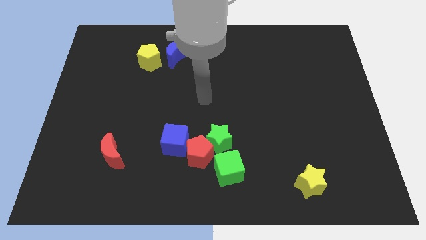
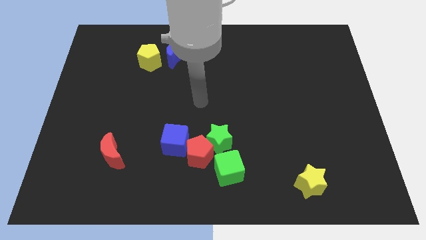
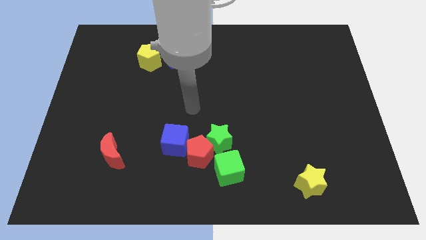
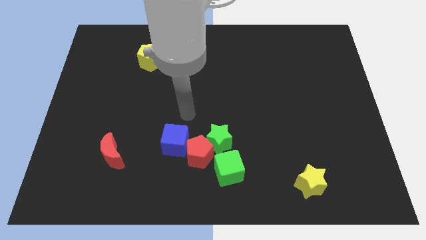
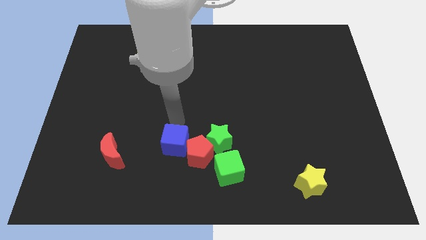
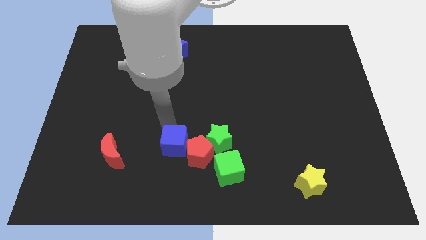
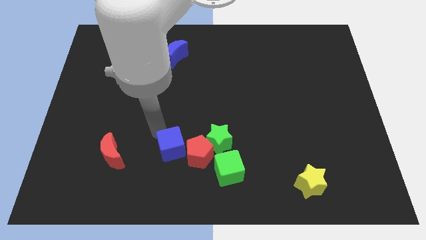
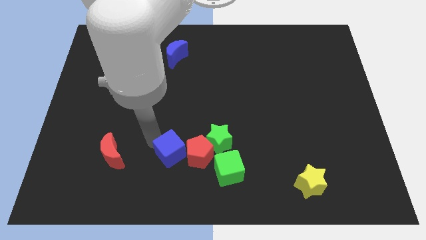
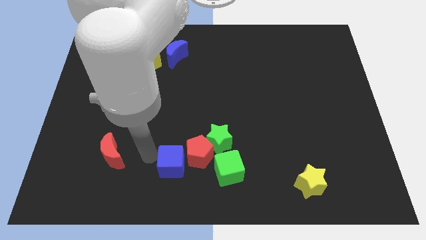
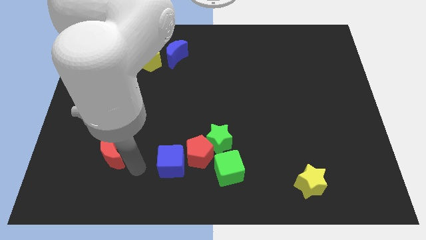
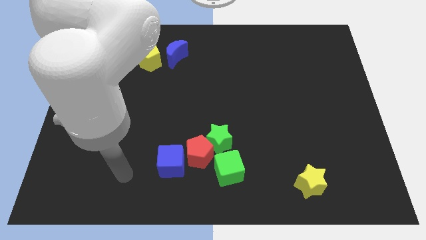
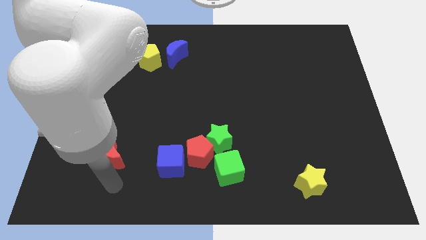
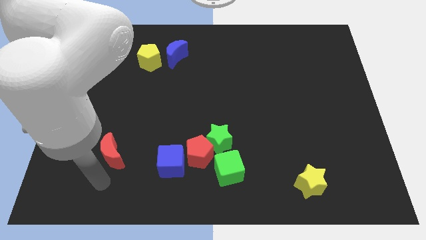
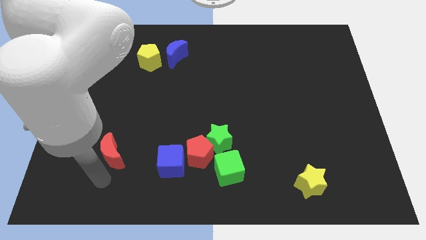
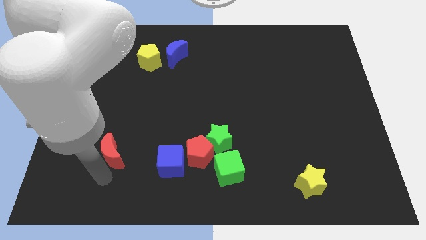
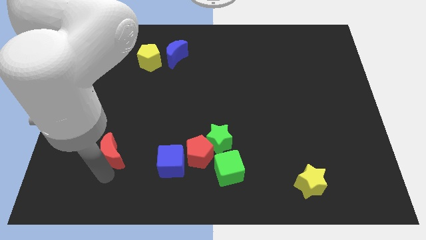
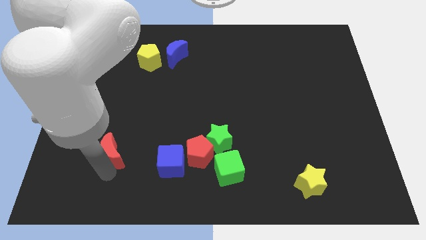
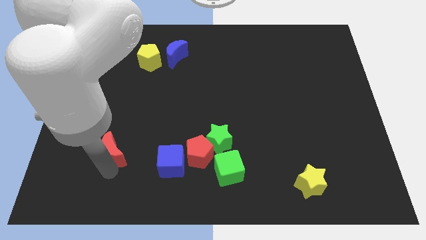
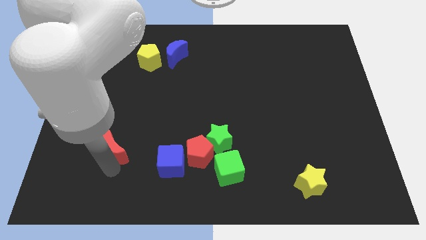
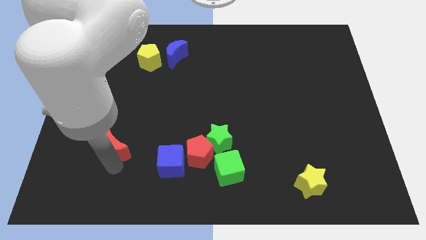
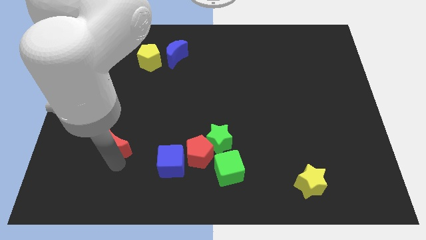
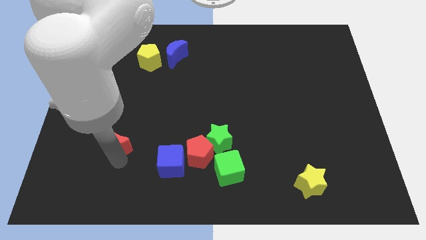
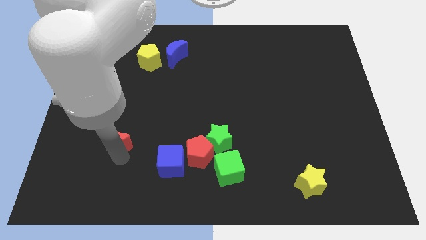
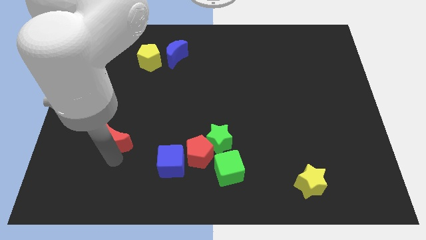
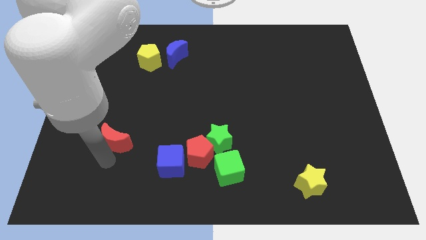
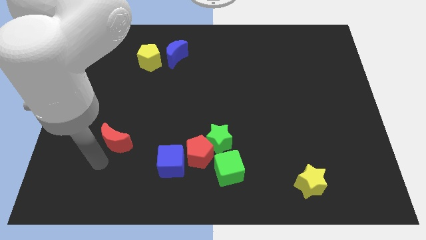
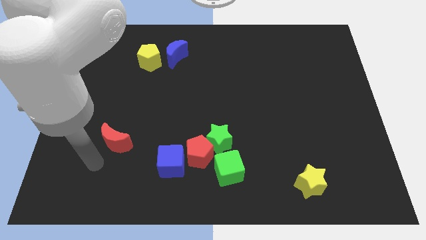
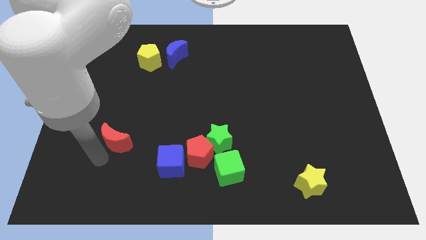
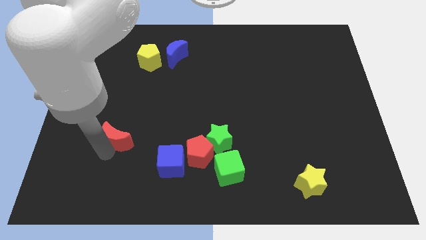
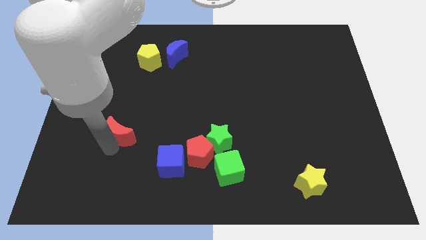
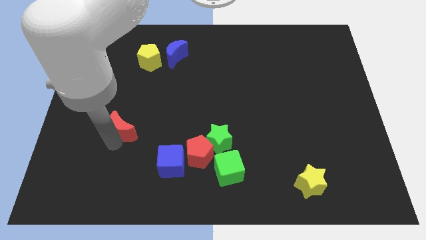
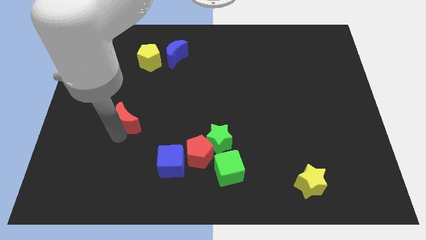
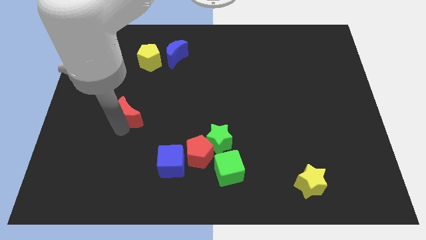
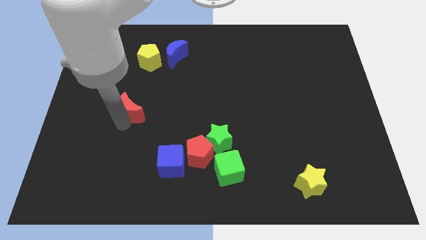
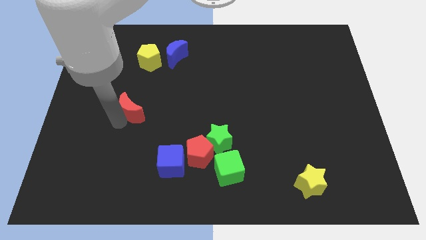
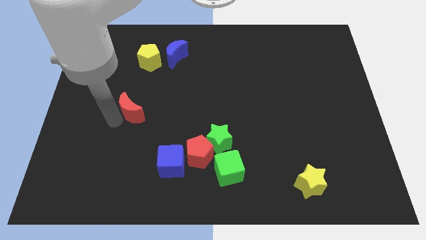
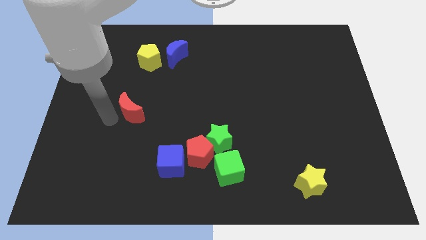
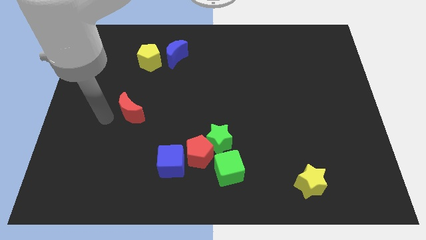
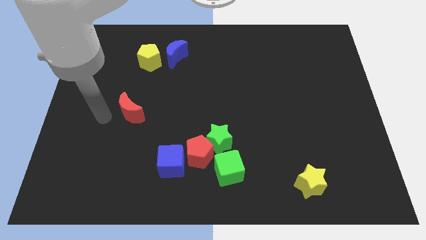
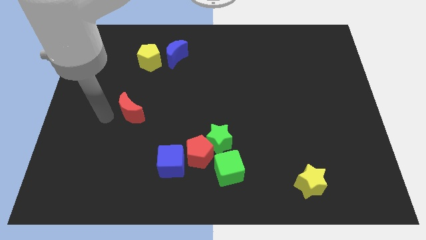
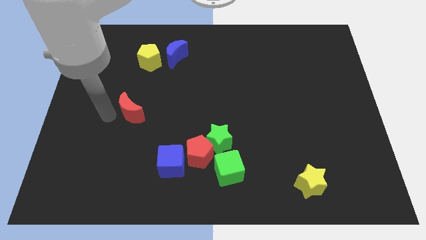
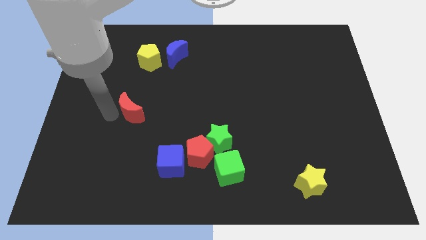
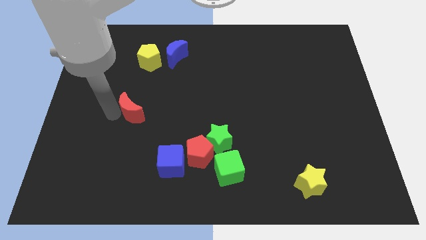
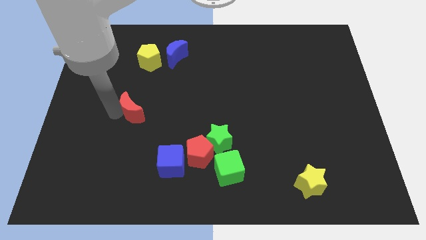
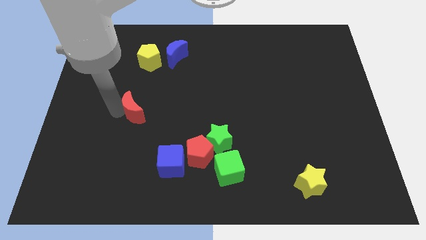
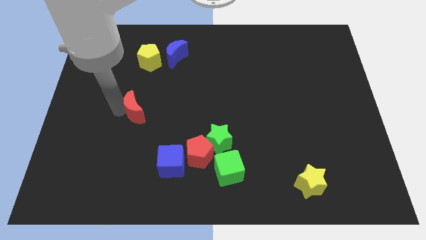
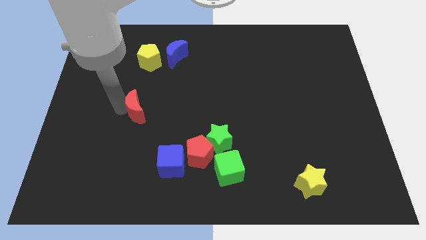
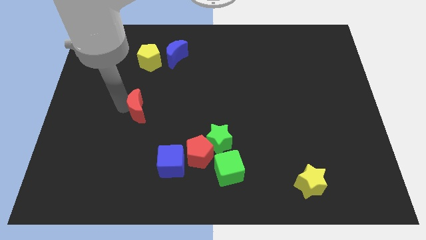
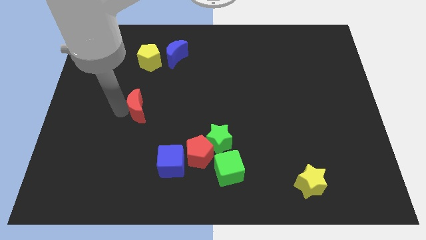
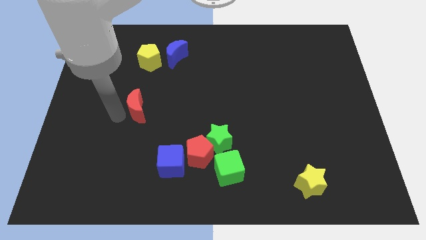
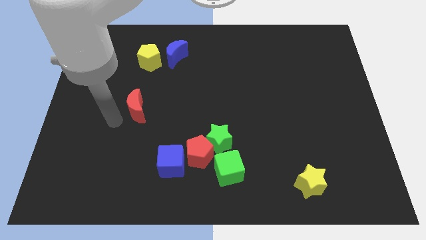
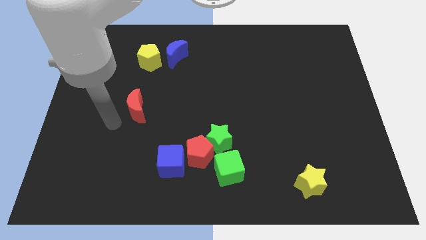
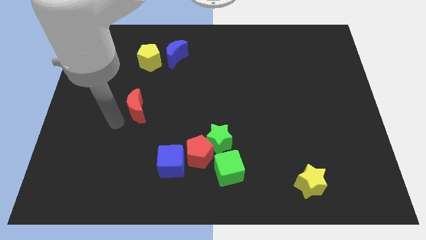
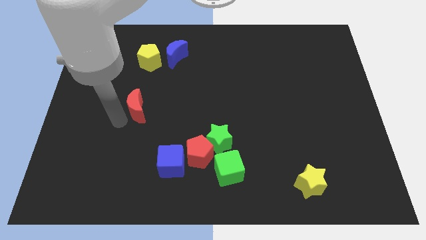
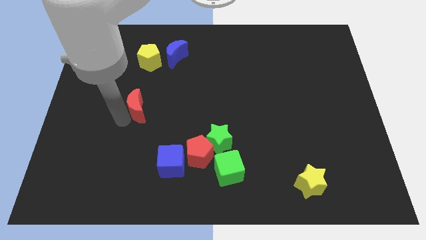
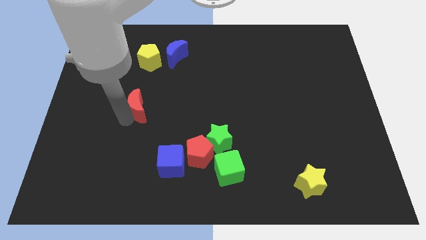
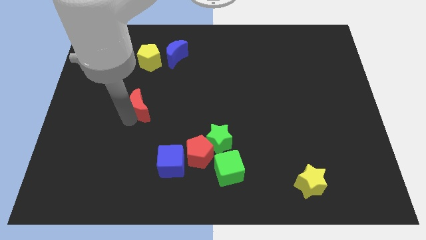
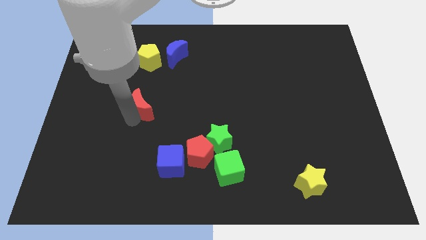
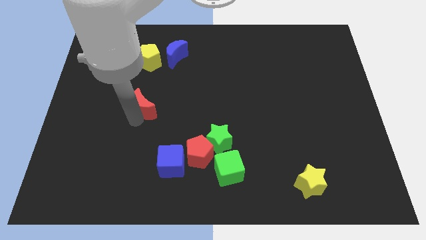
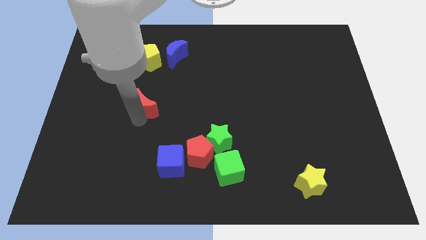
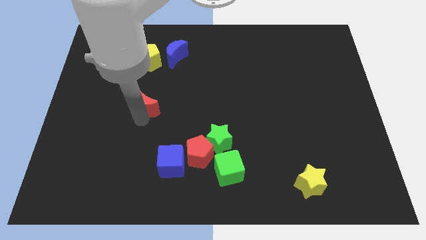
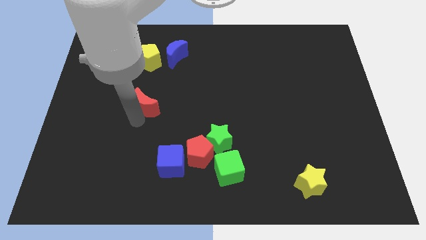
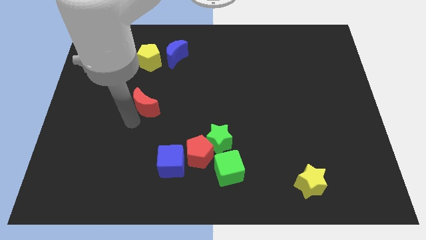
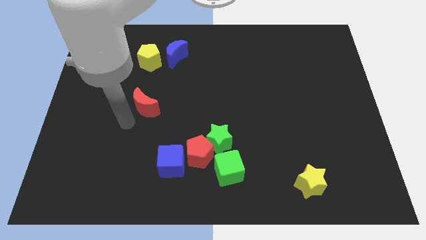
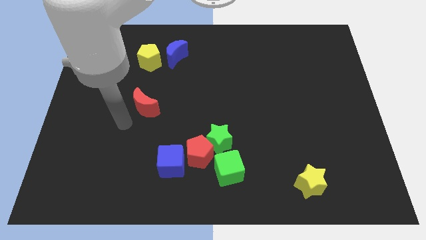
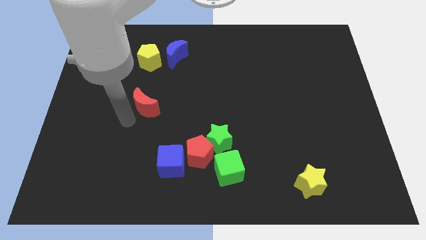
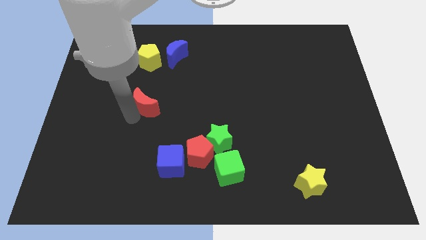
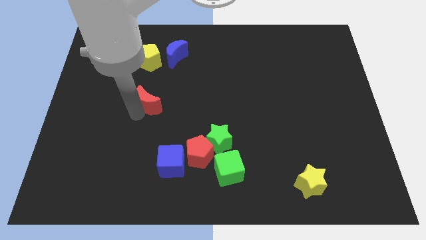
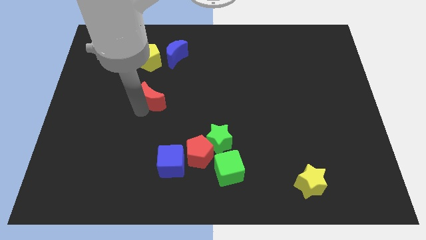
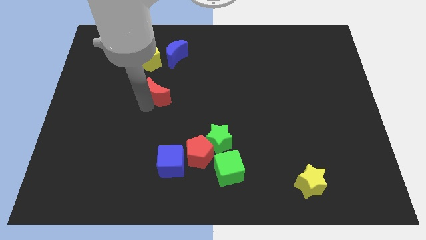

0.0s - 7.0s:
put the red moon below the blue moon
